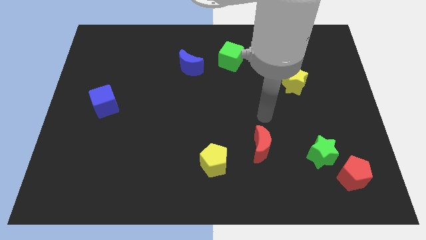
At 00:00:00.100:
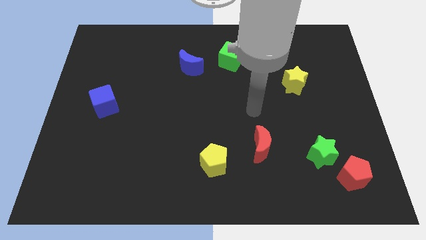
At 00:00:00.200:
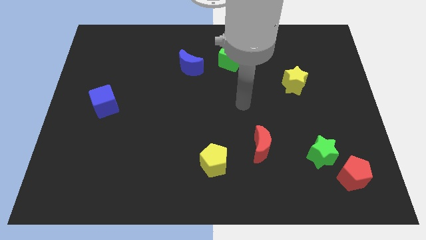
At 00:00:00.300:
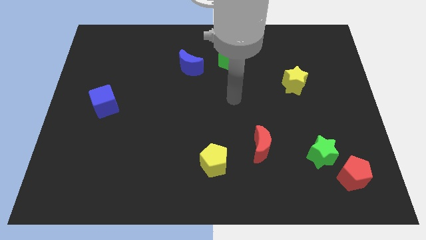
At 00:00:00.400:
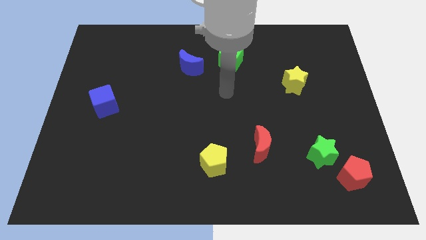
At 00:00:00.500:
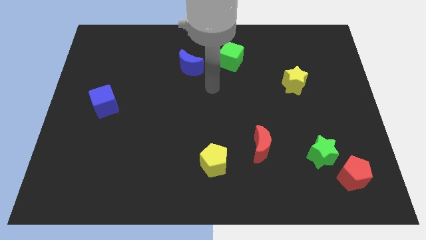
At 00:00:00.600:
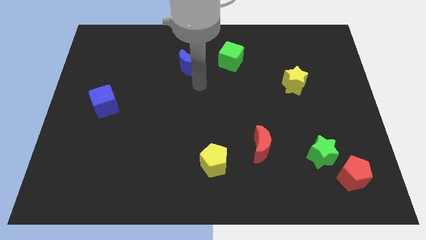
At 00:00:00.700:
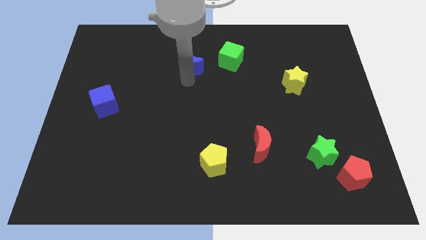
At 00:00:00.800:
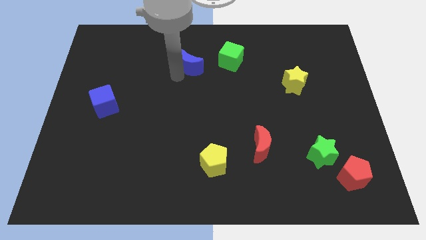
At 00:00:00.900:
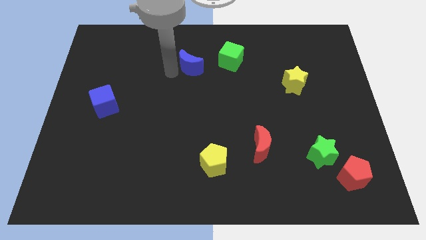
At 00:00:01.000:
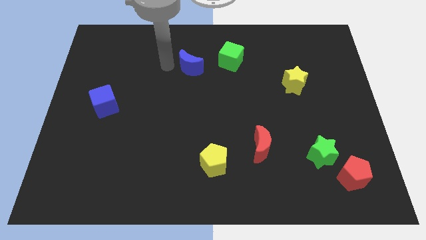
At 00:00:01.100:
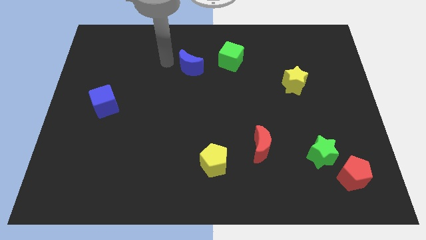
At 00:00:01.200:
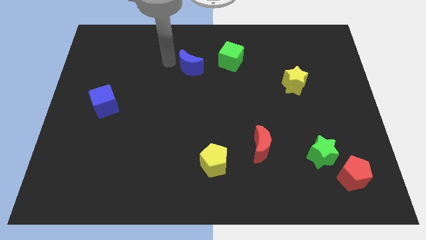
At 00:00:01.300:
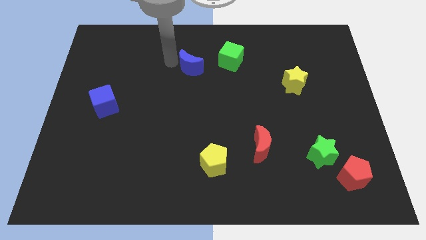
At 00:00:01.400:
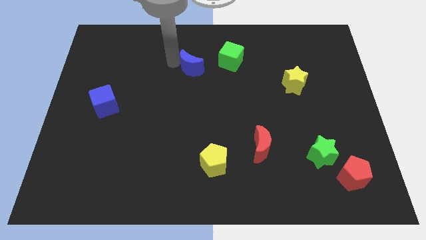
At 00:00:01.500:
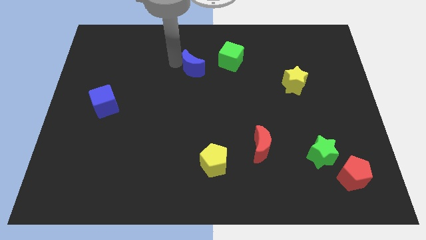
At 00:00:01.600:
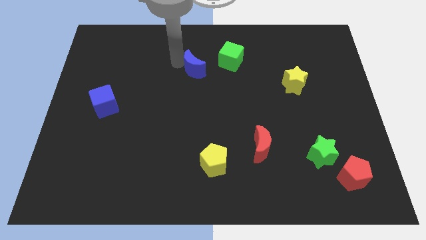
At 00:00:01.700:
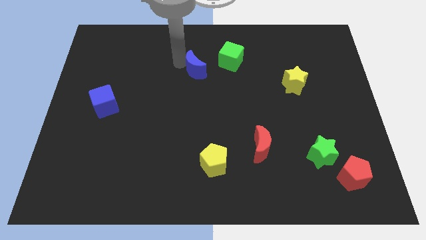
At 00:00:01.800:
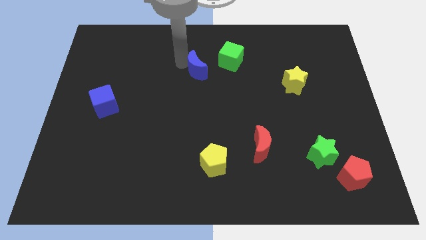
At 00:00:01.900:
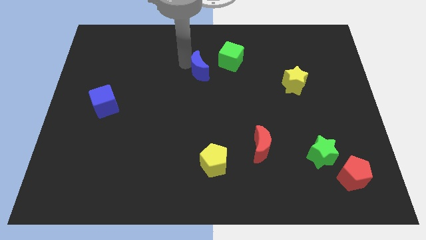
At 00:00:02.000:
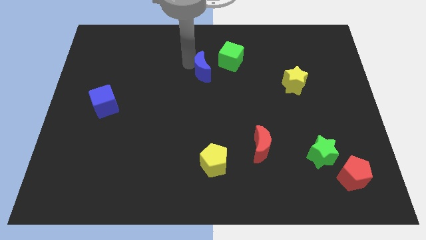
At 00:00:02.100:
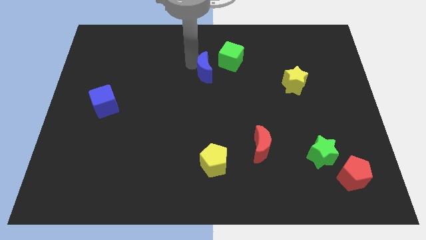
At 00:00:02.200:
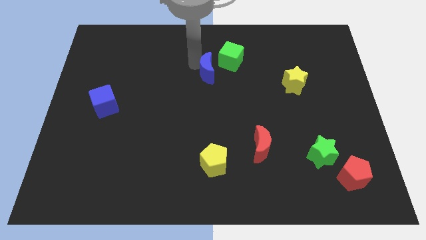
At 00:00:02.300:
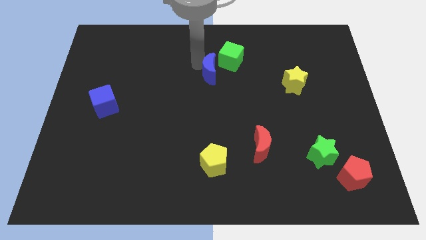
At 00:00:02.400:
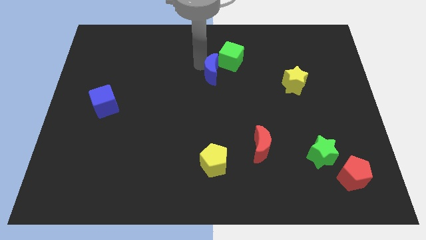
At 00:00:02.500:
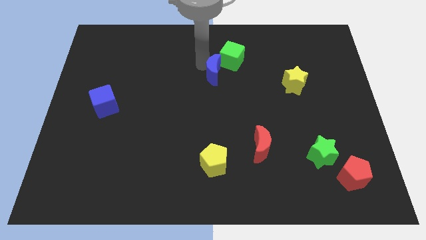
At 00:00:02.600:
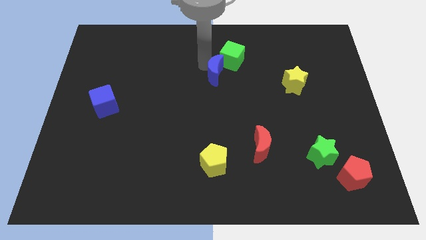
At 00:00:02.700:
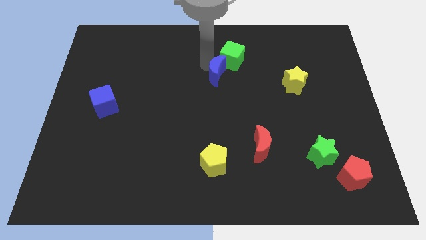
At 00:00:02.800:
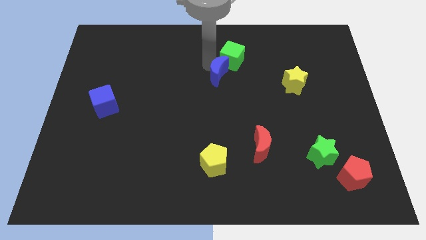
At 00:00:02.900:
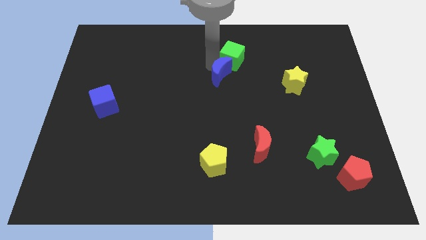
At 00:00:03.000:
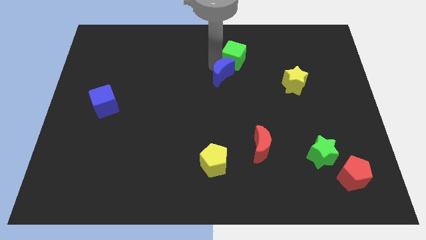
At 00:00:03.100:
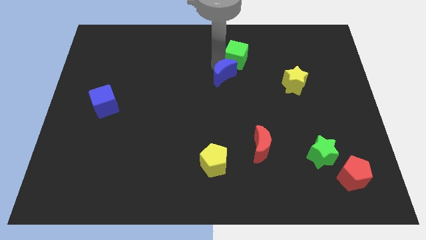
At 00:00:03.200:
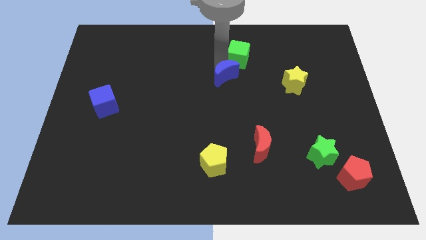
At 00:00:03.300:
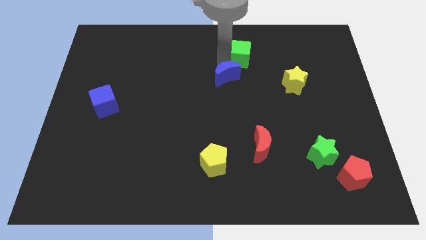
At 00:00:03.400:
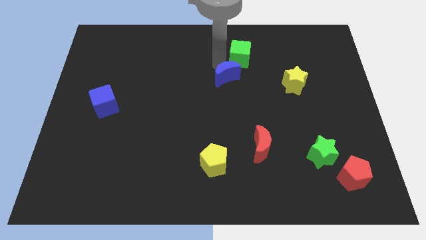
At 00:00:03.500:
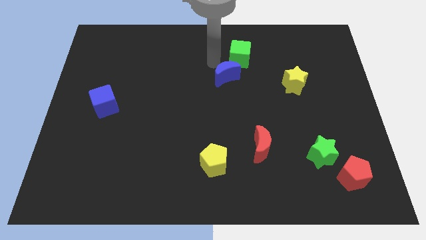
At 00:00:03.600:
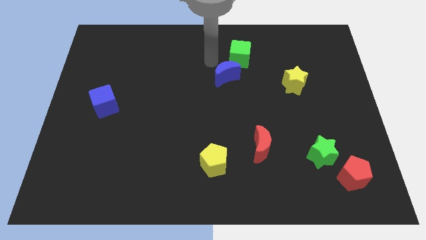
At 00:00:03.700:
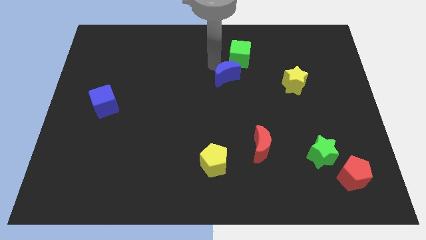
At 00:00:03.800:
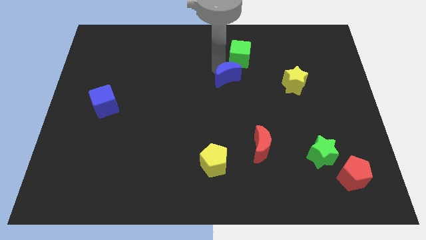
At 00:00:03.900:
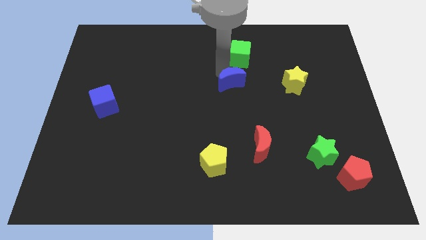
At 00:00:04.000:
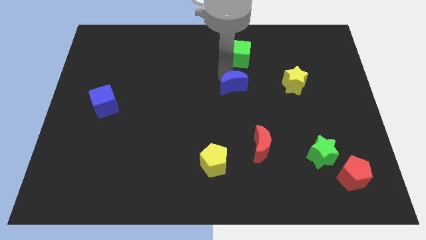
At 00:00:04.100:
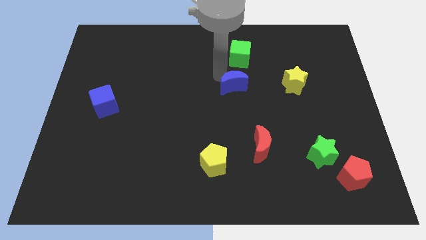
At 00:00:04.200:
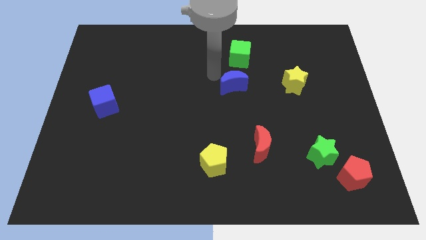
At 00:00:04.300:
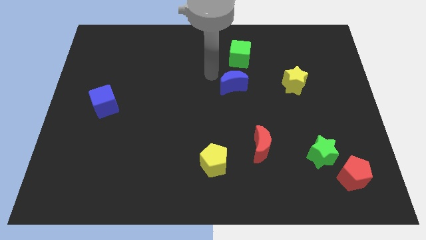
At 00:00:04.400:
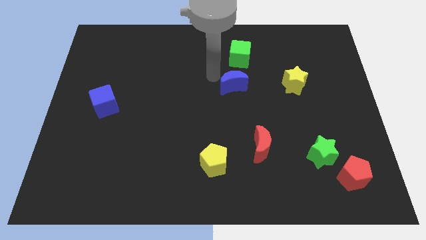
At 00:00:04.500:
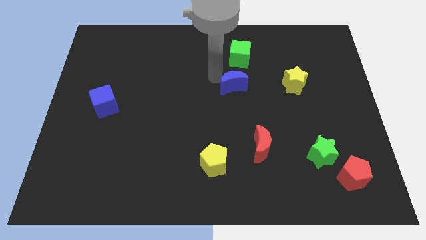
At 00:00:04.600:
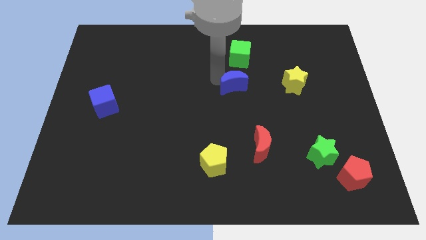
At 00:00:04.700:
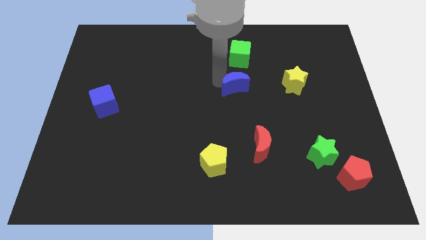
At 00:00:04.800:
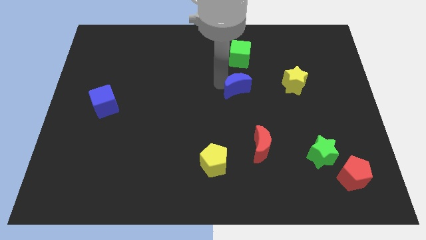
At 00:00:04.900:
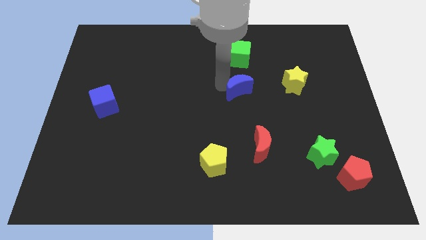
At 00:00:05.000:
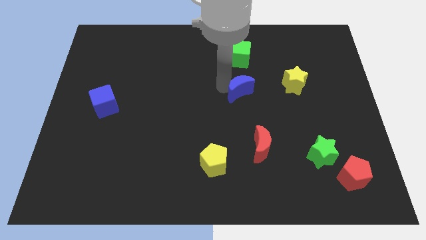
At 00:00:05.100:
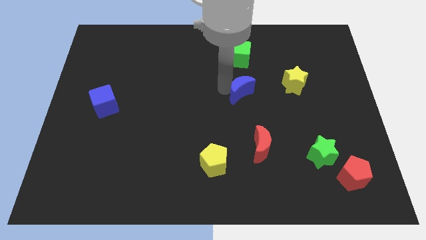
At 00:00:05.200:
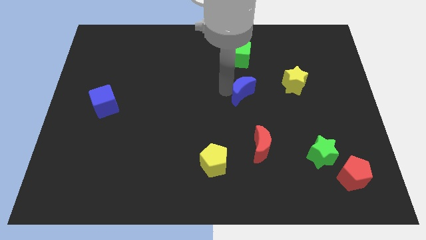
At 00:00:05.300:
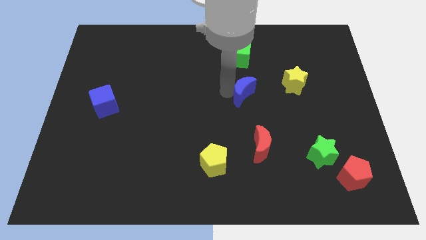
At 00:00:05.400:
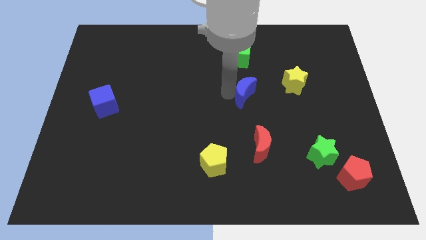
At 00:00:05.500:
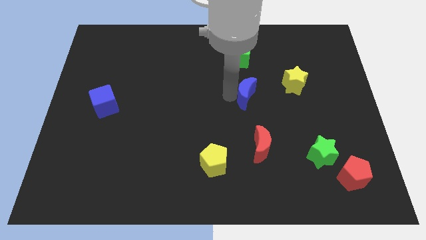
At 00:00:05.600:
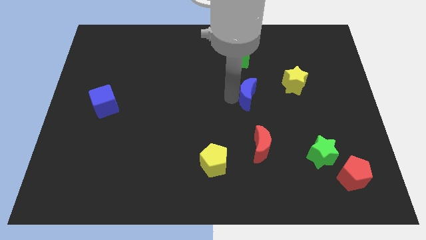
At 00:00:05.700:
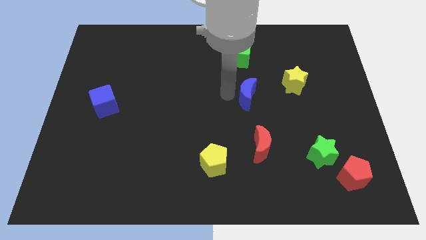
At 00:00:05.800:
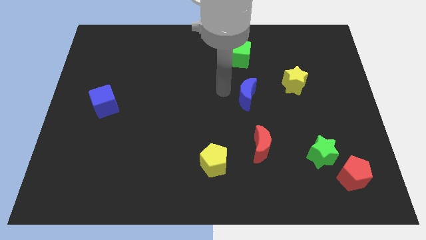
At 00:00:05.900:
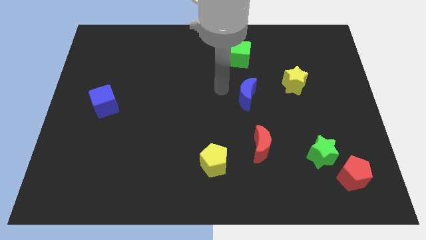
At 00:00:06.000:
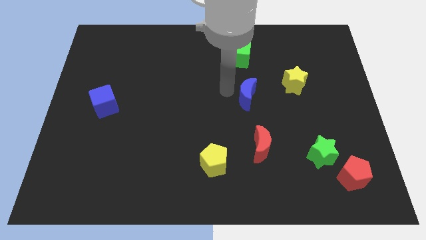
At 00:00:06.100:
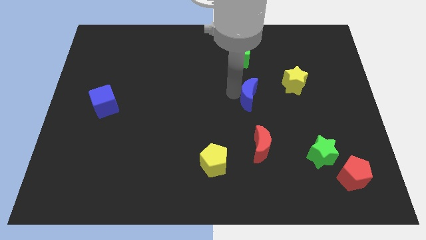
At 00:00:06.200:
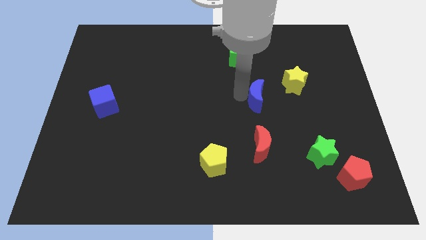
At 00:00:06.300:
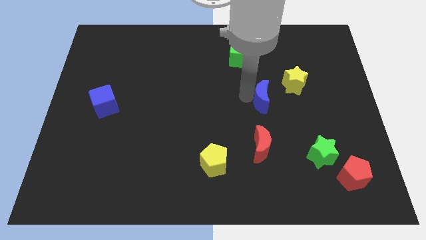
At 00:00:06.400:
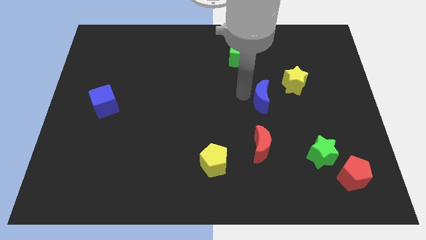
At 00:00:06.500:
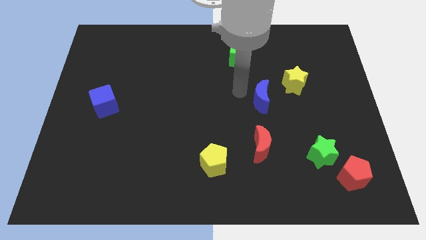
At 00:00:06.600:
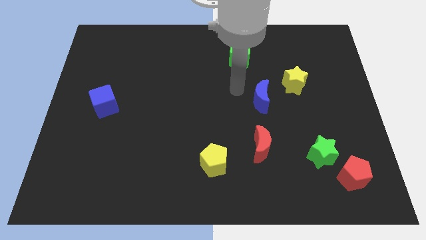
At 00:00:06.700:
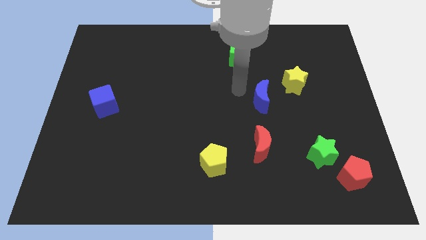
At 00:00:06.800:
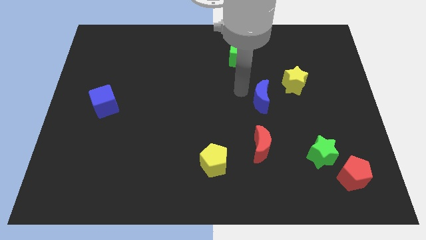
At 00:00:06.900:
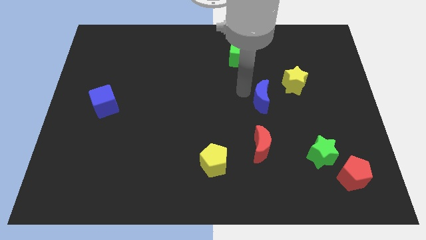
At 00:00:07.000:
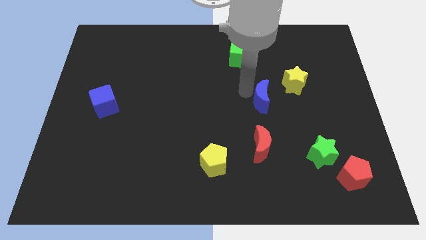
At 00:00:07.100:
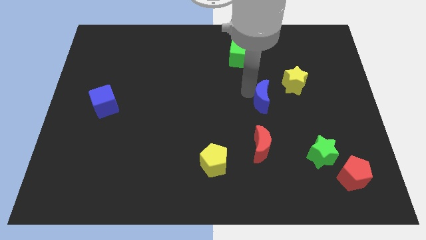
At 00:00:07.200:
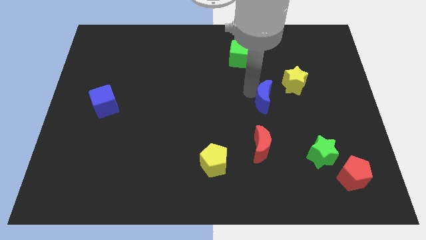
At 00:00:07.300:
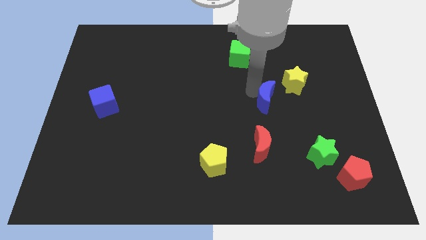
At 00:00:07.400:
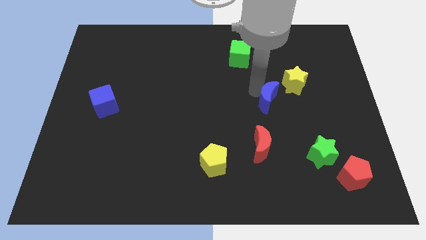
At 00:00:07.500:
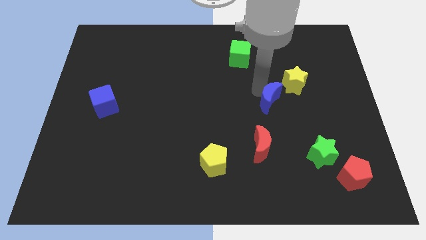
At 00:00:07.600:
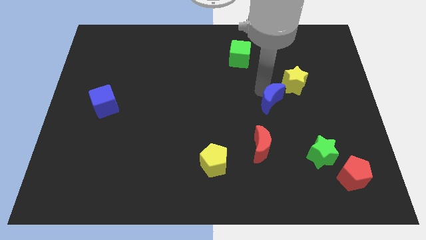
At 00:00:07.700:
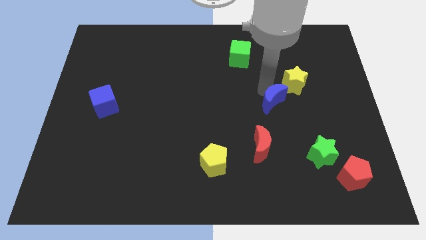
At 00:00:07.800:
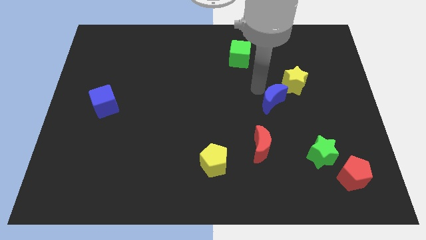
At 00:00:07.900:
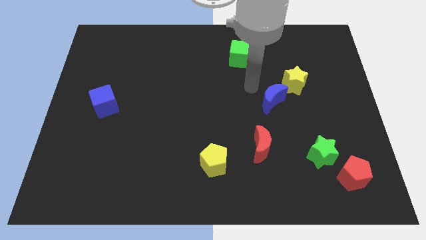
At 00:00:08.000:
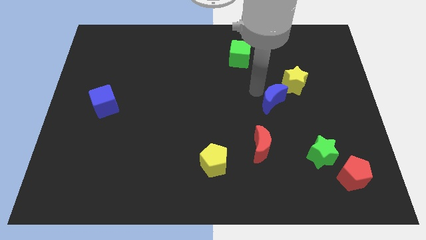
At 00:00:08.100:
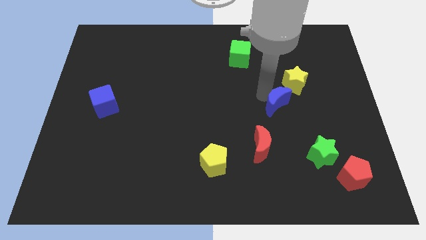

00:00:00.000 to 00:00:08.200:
slide the blue moon below the yellow star
